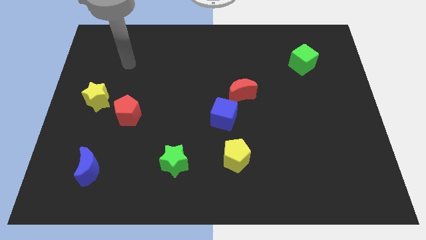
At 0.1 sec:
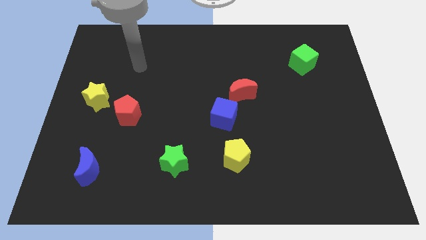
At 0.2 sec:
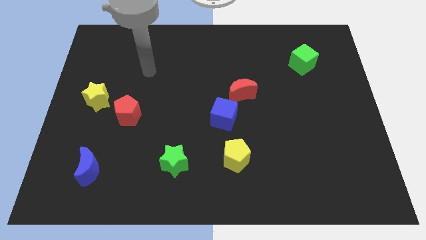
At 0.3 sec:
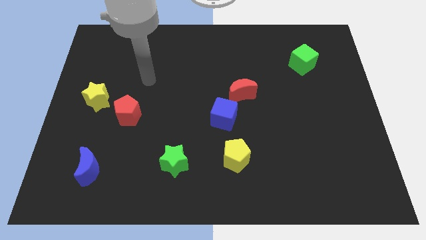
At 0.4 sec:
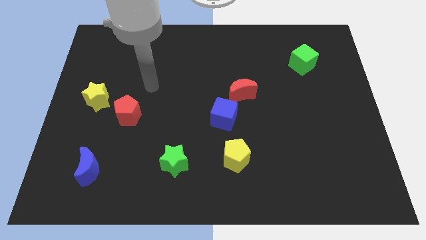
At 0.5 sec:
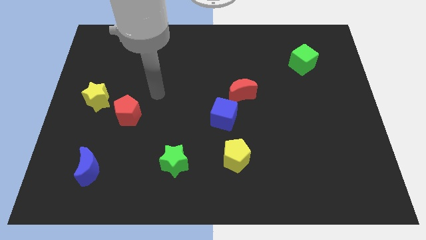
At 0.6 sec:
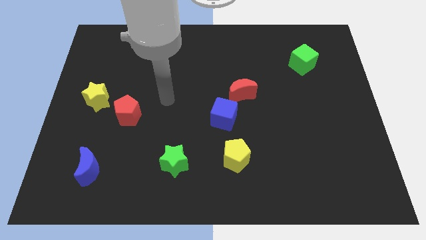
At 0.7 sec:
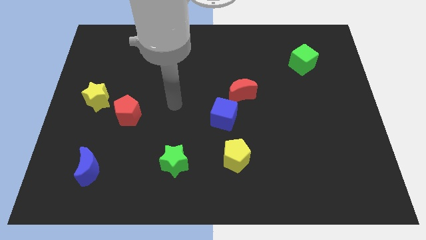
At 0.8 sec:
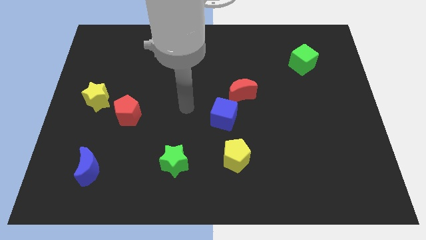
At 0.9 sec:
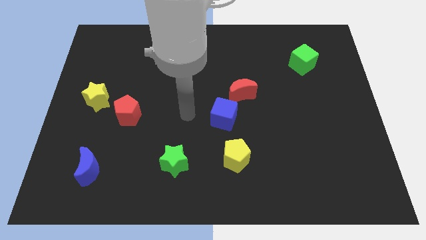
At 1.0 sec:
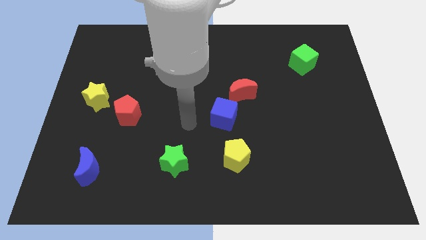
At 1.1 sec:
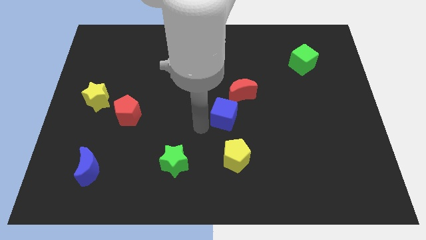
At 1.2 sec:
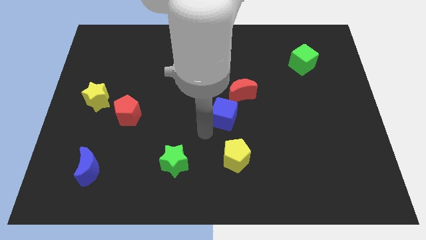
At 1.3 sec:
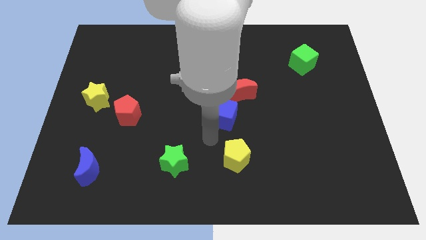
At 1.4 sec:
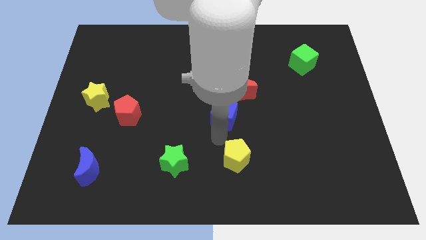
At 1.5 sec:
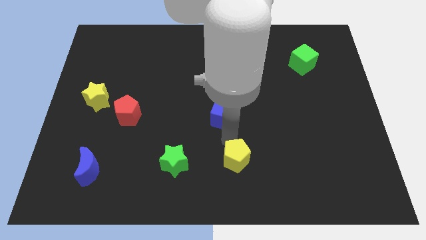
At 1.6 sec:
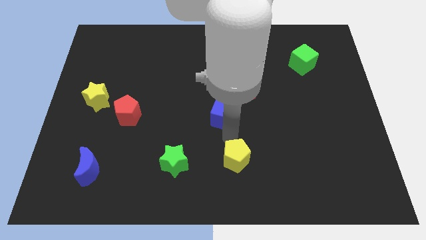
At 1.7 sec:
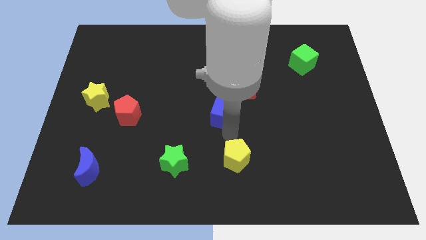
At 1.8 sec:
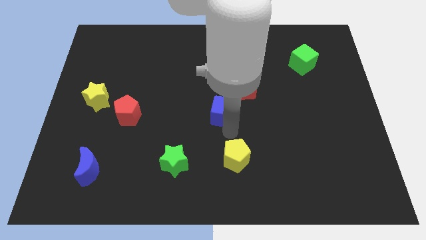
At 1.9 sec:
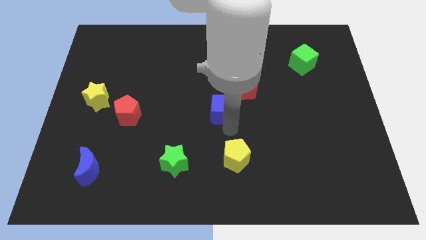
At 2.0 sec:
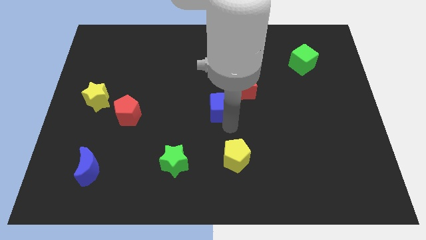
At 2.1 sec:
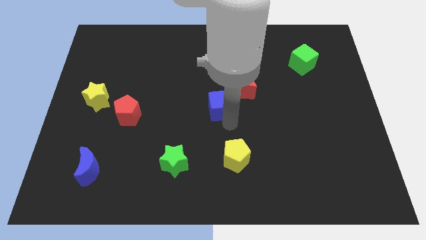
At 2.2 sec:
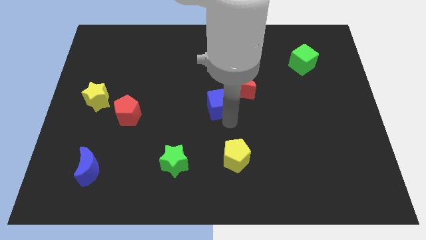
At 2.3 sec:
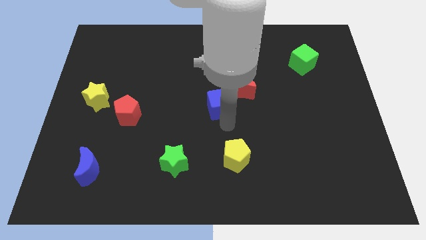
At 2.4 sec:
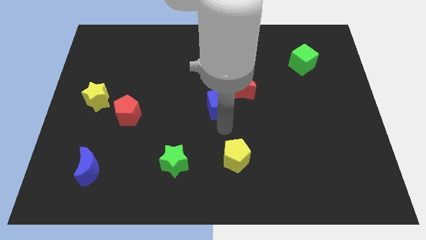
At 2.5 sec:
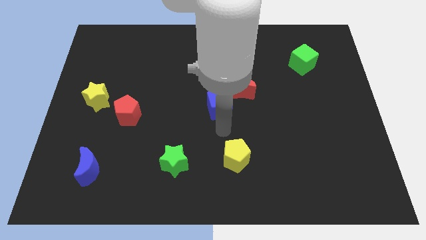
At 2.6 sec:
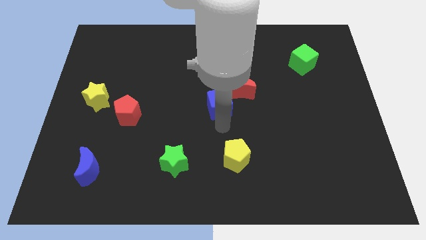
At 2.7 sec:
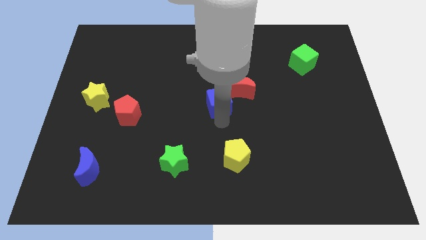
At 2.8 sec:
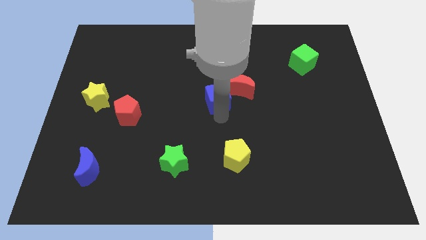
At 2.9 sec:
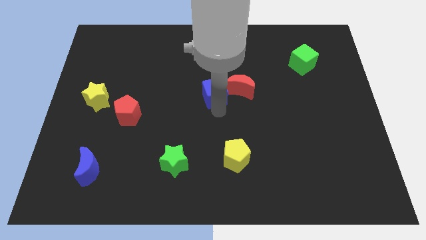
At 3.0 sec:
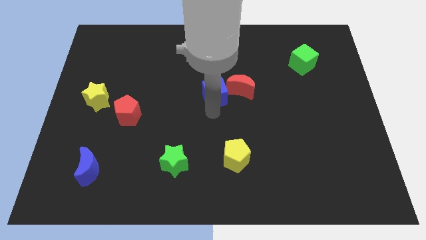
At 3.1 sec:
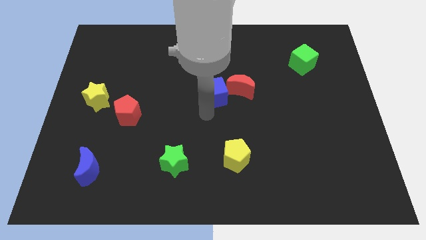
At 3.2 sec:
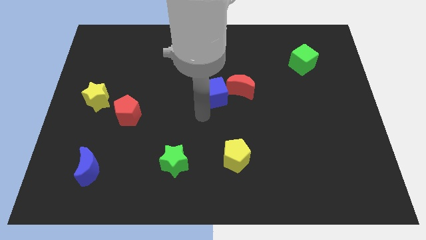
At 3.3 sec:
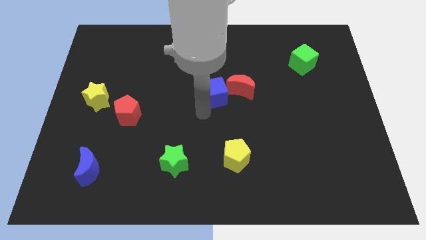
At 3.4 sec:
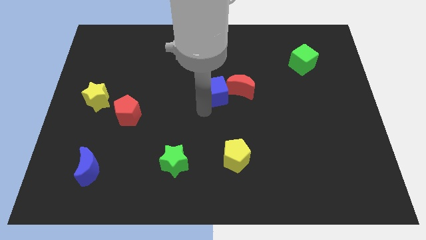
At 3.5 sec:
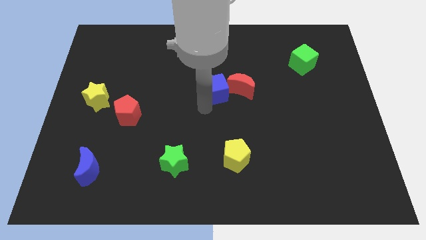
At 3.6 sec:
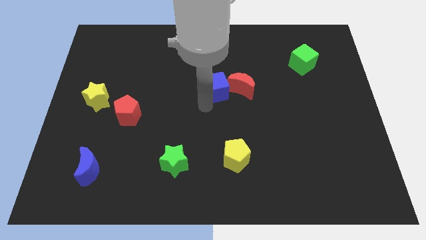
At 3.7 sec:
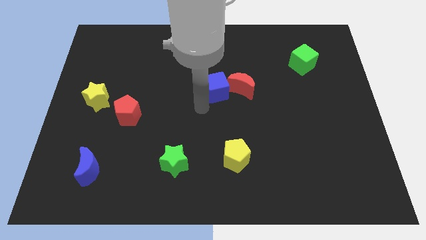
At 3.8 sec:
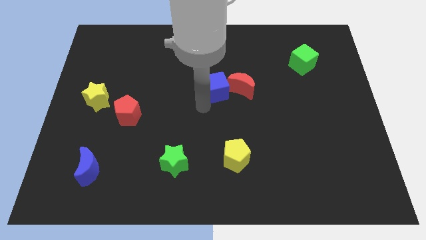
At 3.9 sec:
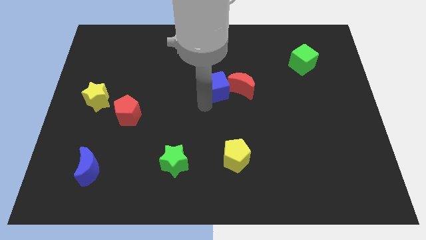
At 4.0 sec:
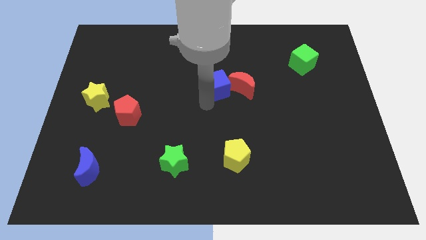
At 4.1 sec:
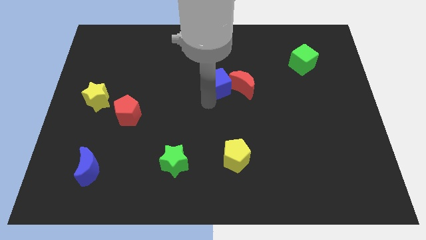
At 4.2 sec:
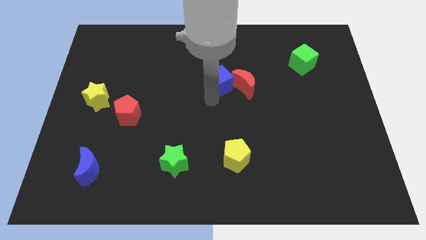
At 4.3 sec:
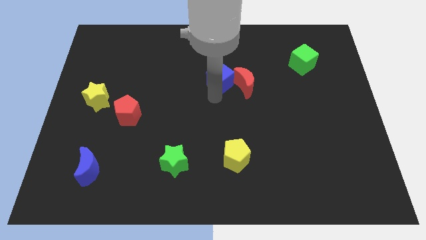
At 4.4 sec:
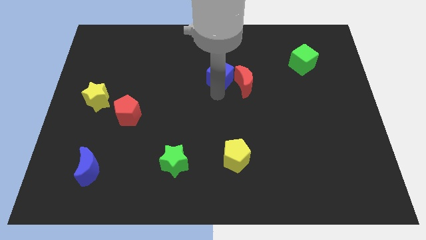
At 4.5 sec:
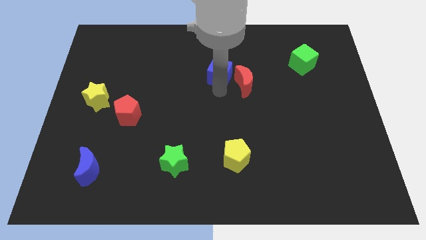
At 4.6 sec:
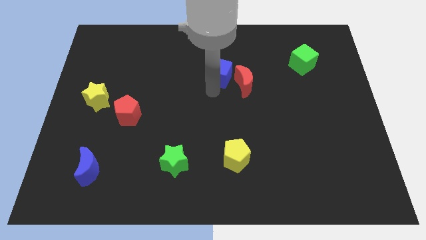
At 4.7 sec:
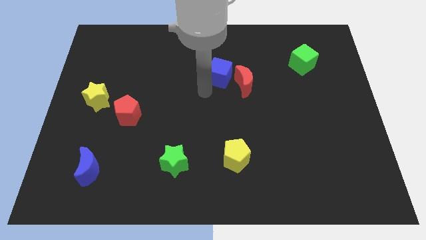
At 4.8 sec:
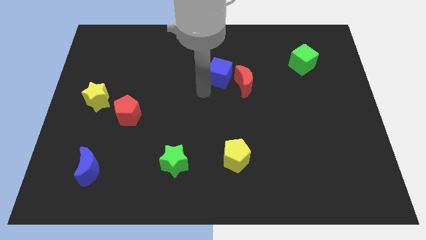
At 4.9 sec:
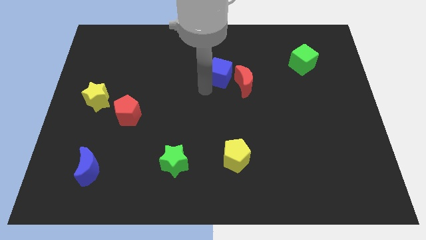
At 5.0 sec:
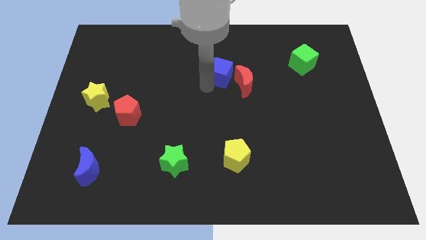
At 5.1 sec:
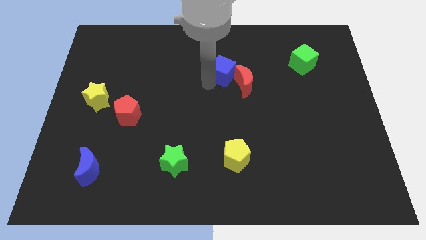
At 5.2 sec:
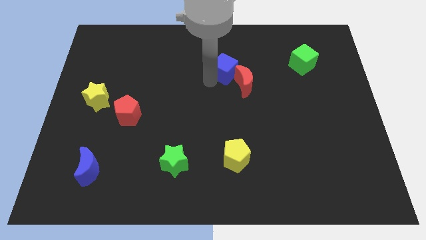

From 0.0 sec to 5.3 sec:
slide the blue cube to the top of the red moon

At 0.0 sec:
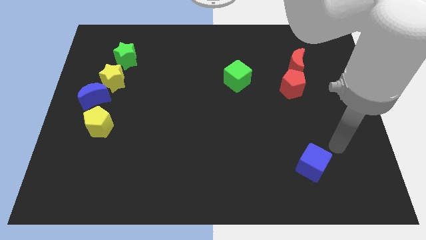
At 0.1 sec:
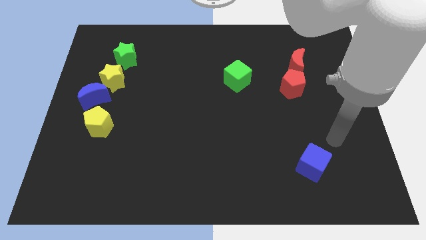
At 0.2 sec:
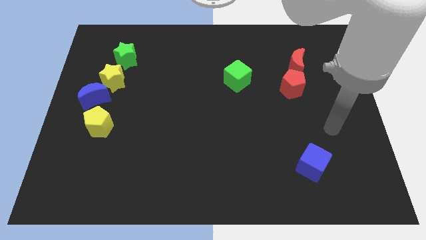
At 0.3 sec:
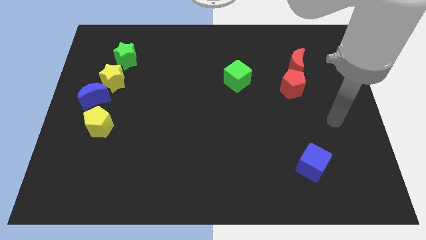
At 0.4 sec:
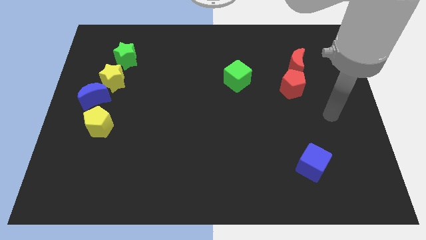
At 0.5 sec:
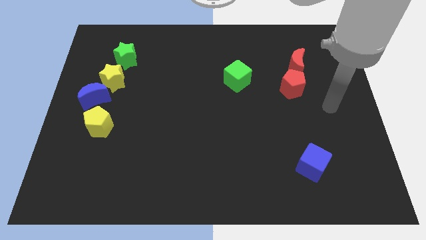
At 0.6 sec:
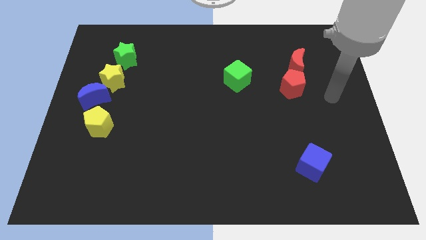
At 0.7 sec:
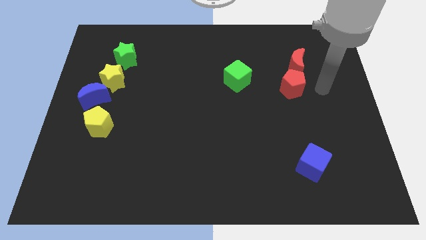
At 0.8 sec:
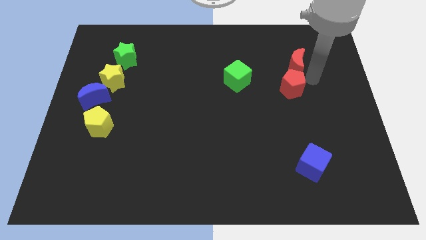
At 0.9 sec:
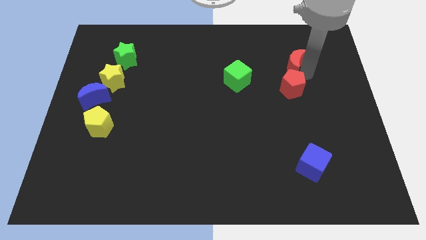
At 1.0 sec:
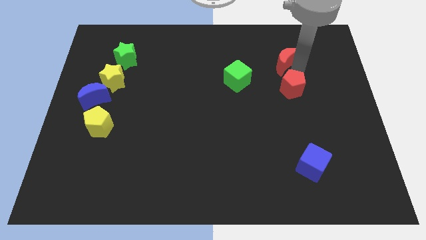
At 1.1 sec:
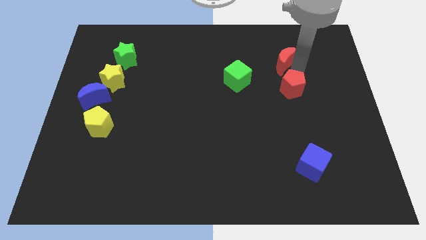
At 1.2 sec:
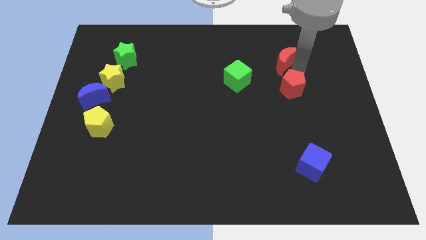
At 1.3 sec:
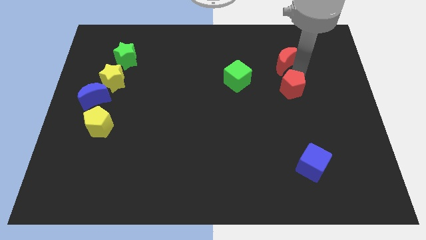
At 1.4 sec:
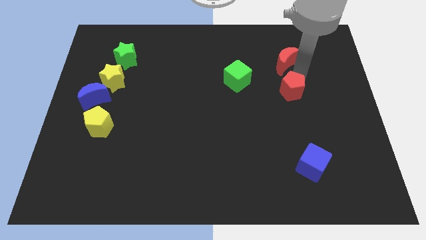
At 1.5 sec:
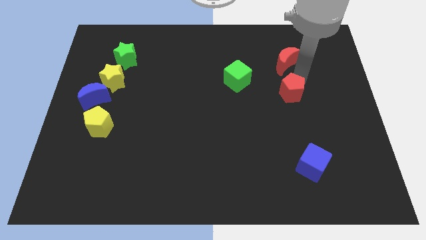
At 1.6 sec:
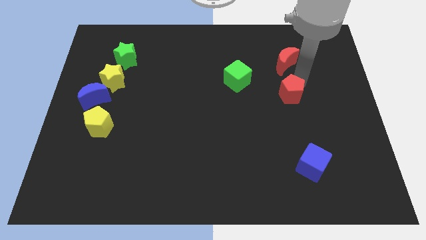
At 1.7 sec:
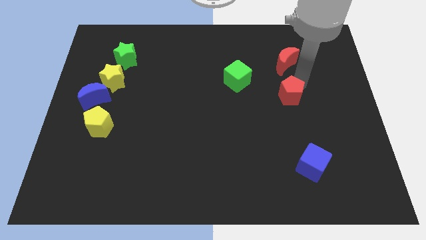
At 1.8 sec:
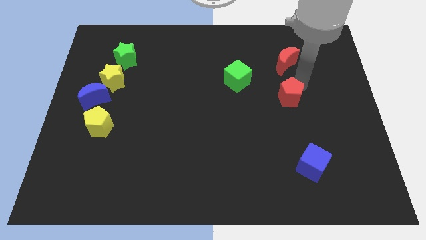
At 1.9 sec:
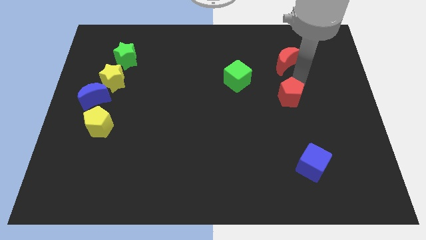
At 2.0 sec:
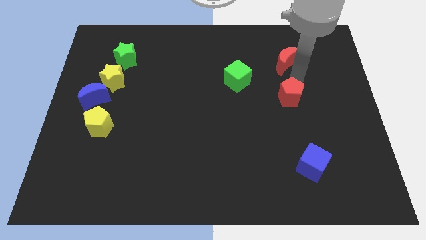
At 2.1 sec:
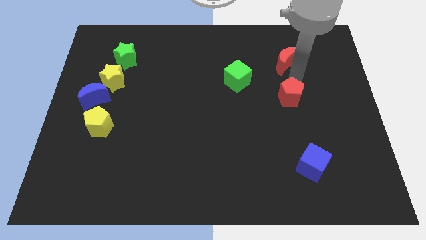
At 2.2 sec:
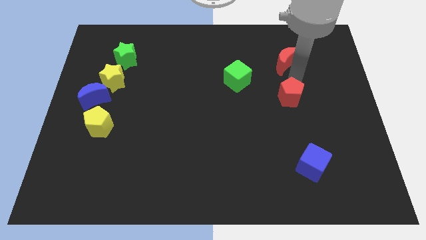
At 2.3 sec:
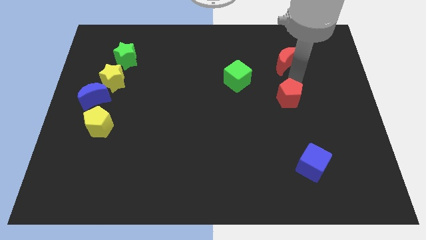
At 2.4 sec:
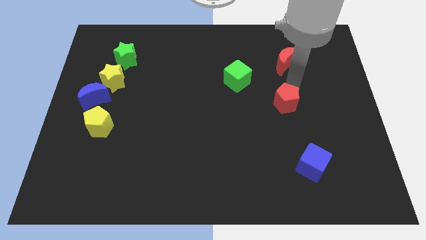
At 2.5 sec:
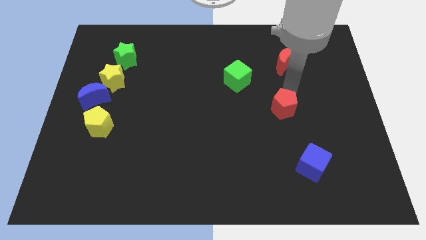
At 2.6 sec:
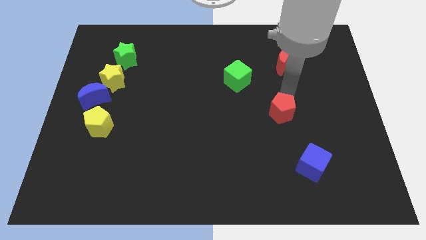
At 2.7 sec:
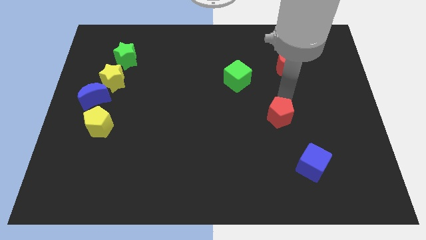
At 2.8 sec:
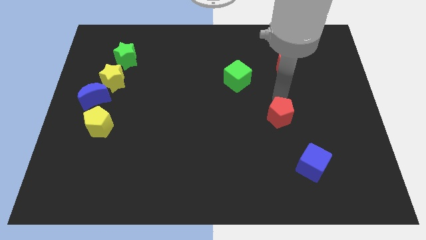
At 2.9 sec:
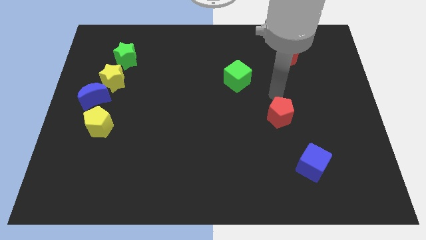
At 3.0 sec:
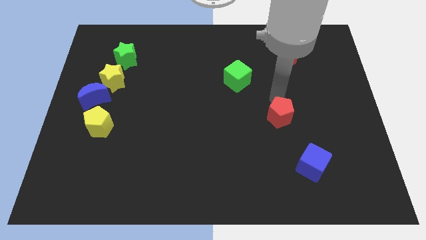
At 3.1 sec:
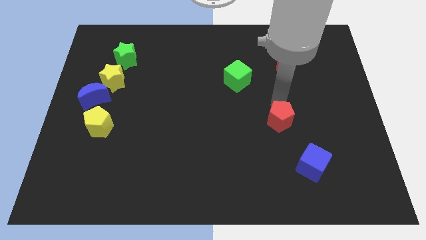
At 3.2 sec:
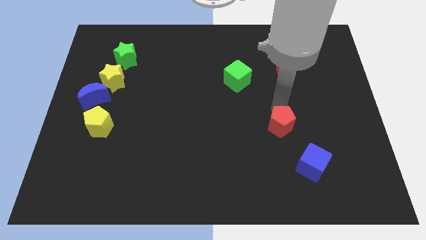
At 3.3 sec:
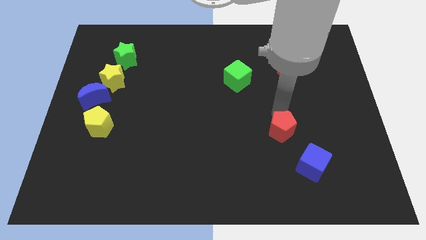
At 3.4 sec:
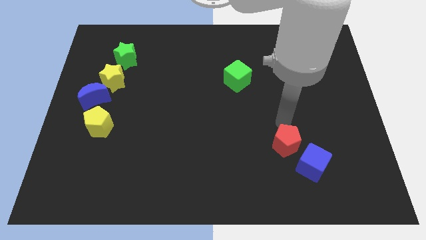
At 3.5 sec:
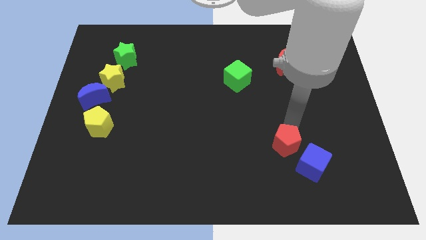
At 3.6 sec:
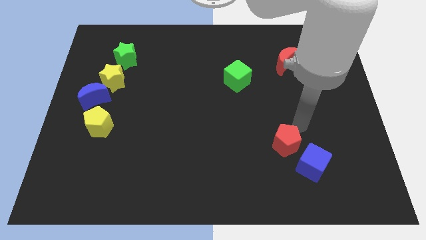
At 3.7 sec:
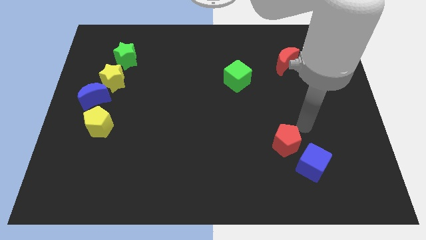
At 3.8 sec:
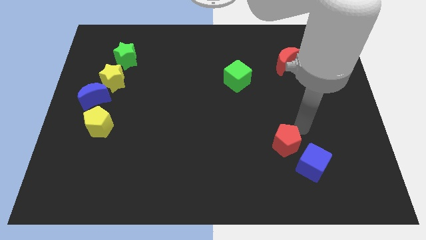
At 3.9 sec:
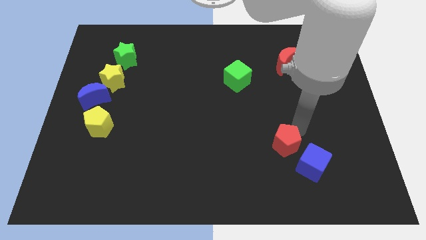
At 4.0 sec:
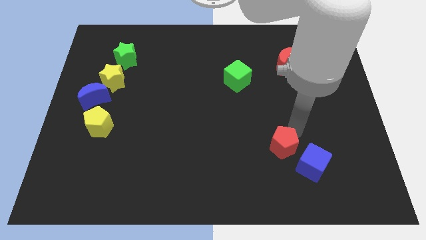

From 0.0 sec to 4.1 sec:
slide the red pentagon to the left side of the blue cube
